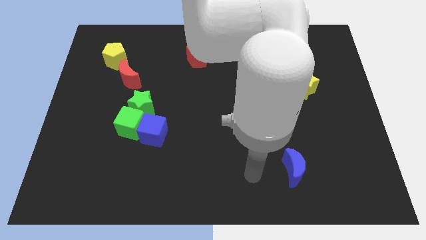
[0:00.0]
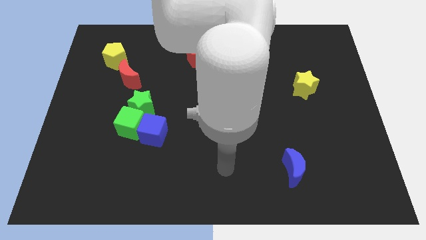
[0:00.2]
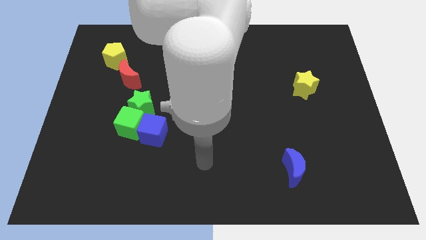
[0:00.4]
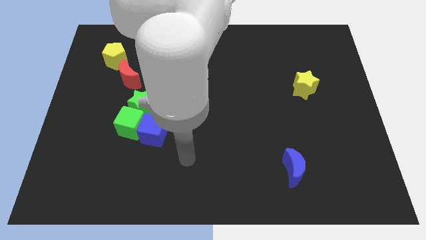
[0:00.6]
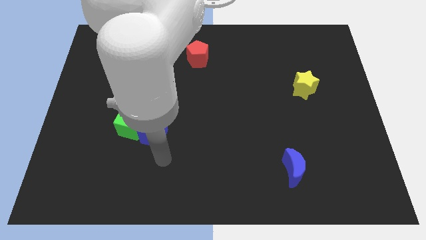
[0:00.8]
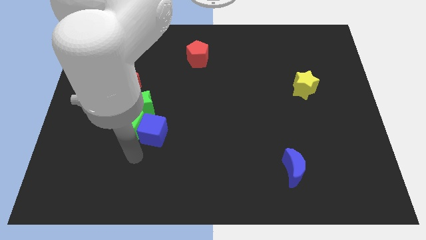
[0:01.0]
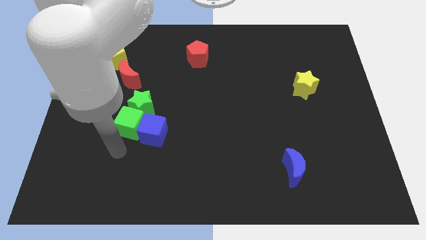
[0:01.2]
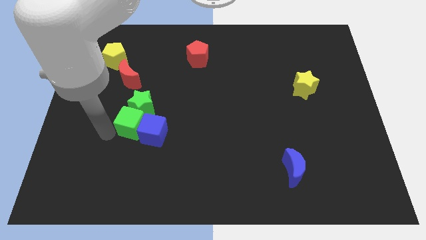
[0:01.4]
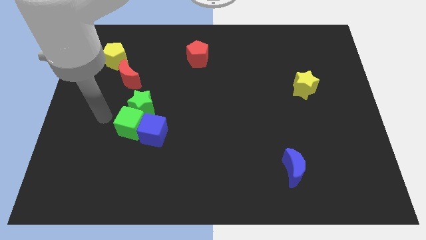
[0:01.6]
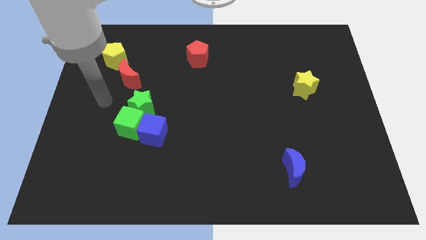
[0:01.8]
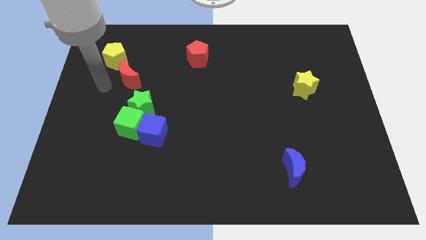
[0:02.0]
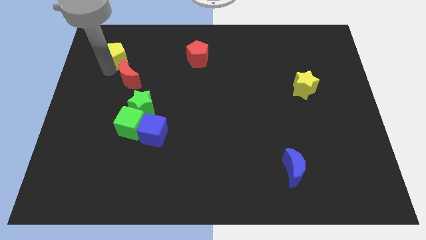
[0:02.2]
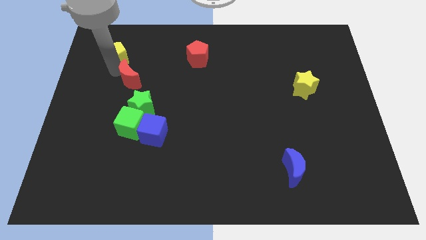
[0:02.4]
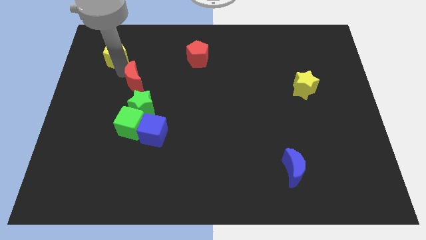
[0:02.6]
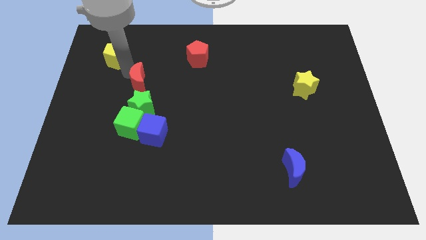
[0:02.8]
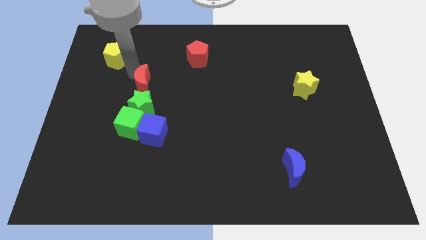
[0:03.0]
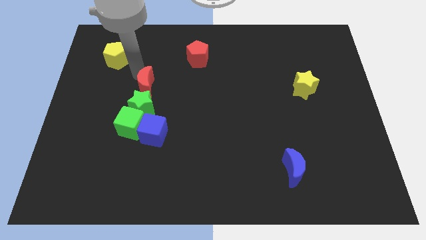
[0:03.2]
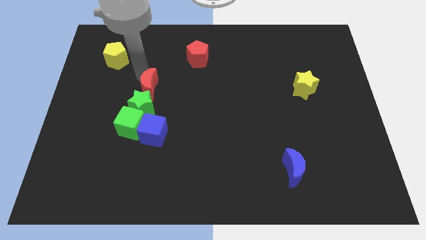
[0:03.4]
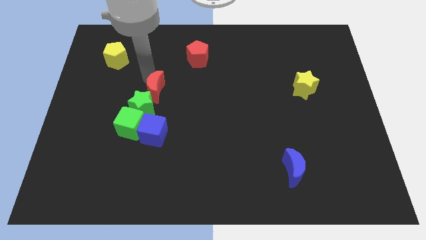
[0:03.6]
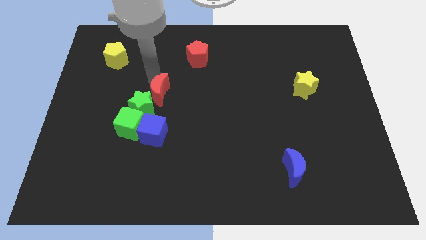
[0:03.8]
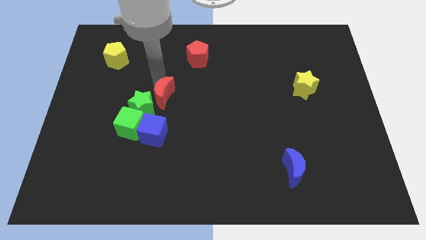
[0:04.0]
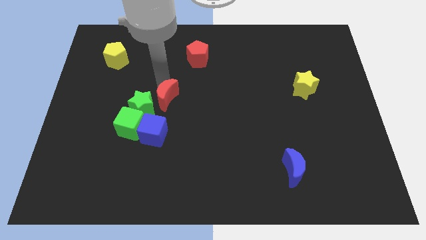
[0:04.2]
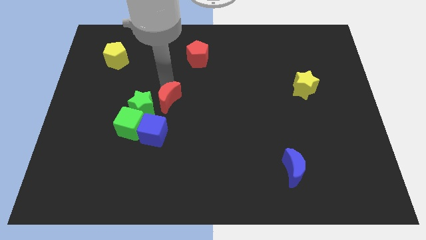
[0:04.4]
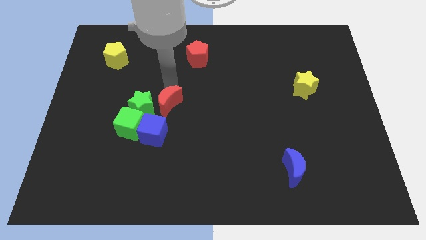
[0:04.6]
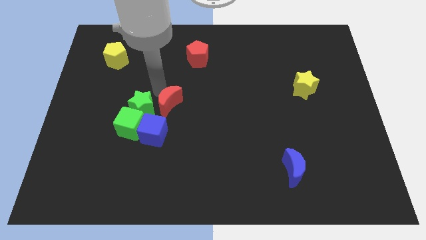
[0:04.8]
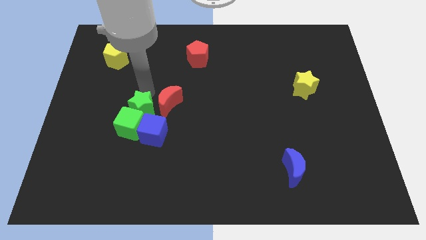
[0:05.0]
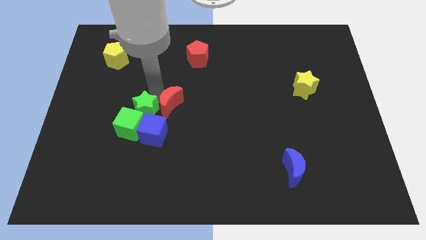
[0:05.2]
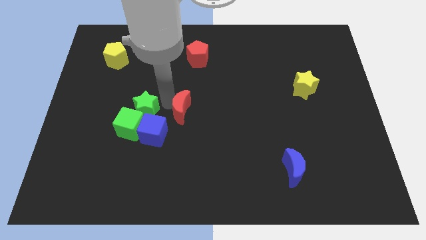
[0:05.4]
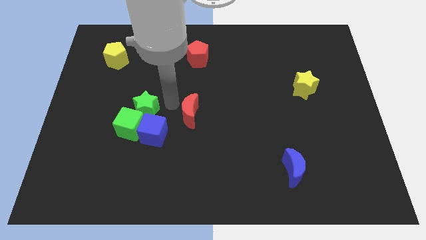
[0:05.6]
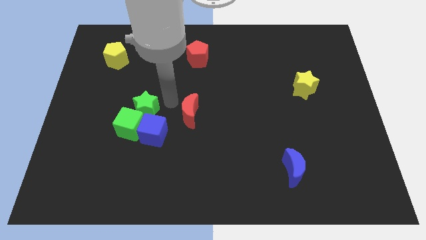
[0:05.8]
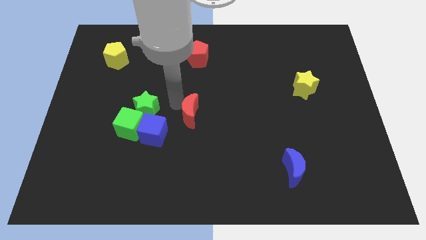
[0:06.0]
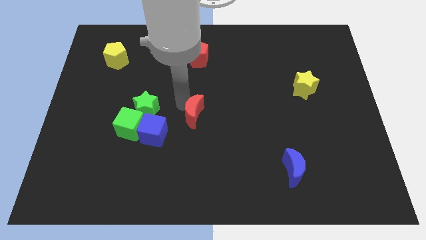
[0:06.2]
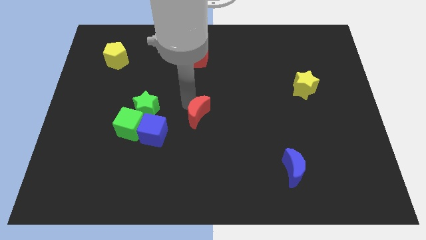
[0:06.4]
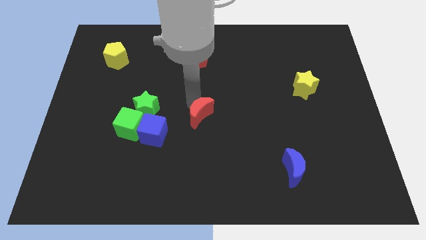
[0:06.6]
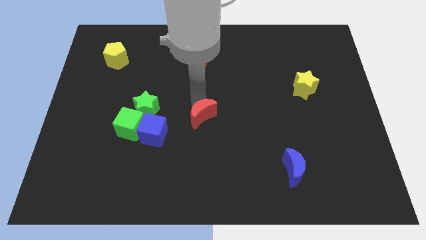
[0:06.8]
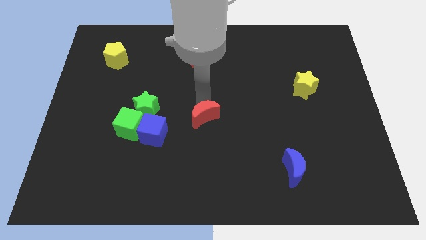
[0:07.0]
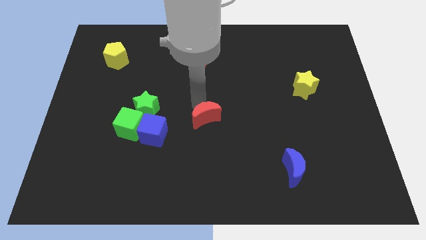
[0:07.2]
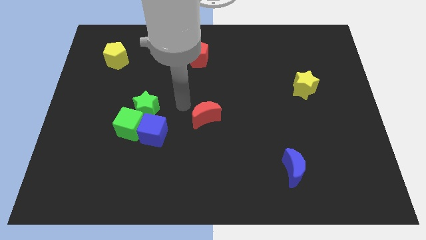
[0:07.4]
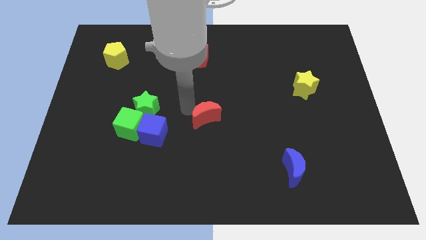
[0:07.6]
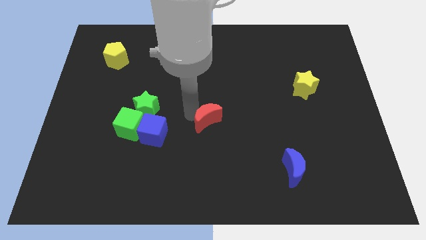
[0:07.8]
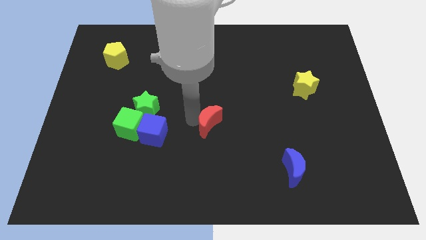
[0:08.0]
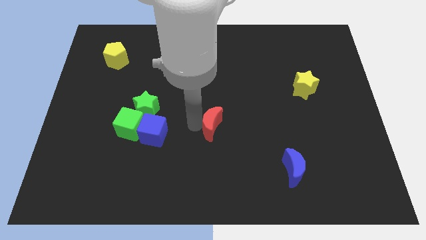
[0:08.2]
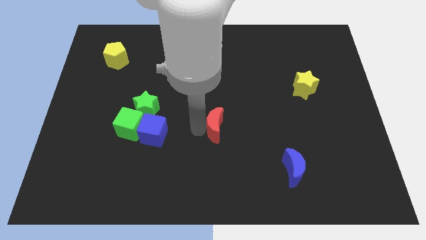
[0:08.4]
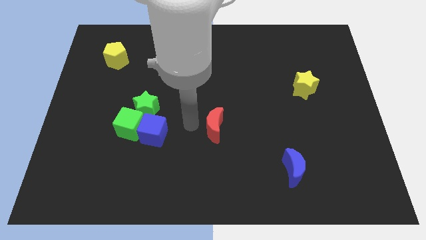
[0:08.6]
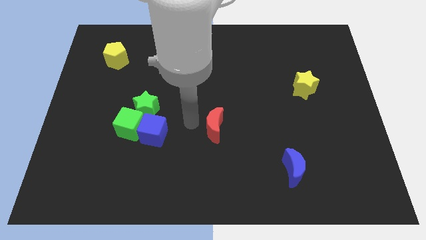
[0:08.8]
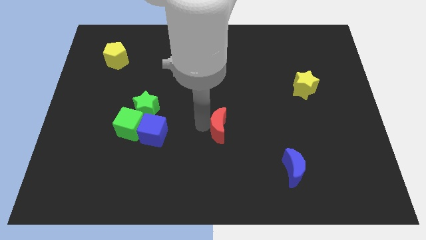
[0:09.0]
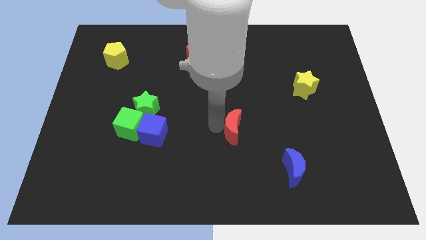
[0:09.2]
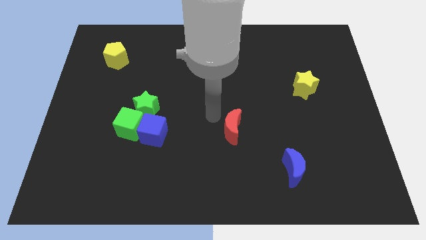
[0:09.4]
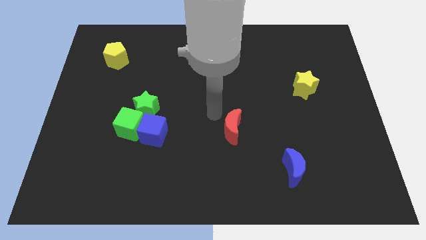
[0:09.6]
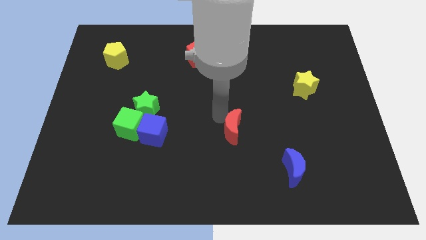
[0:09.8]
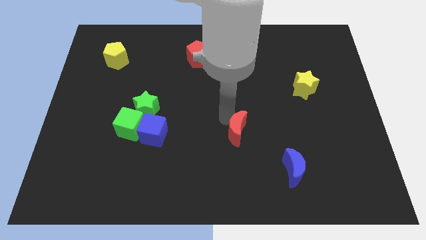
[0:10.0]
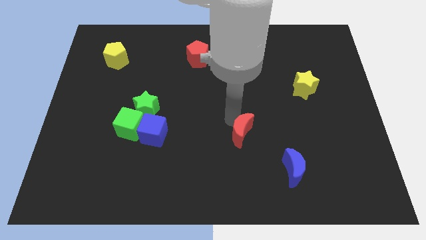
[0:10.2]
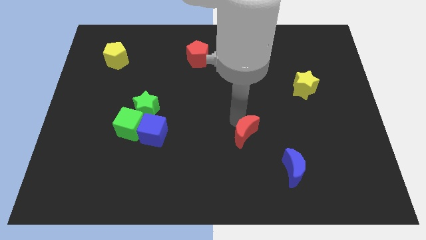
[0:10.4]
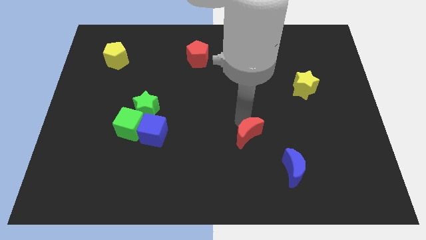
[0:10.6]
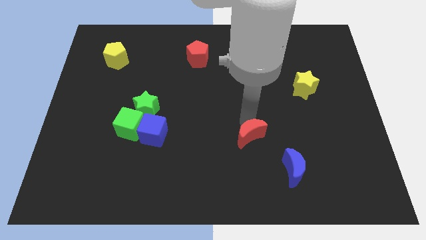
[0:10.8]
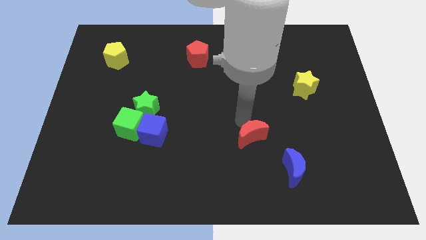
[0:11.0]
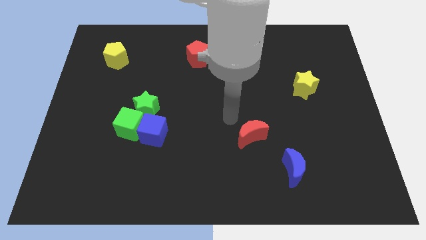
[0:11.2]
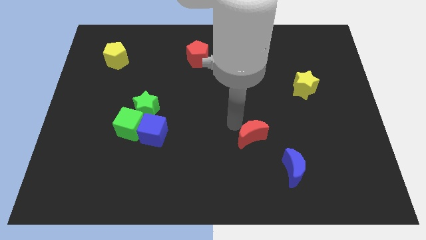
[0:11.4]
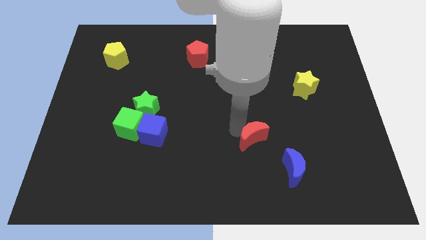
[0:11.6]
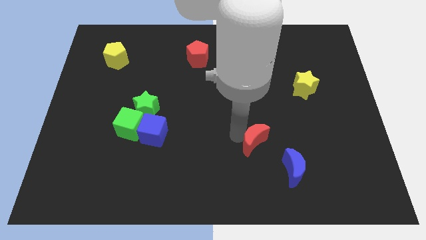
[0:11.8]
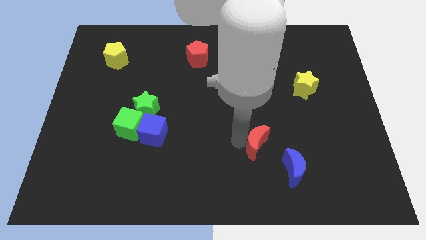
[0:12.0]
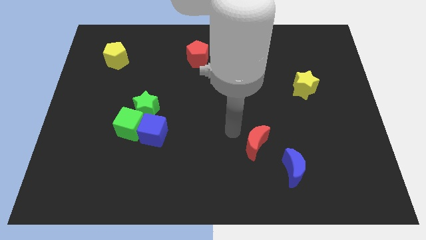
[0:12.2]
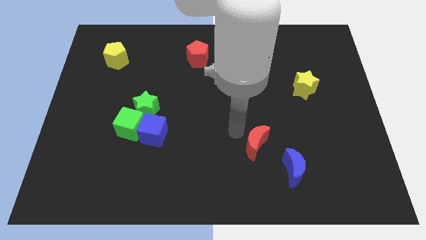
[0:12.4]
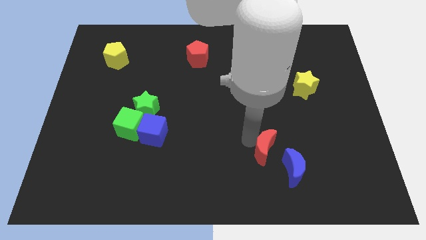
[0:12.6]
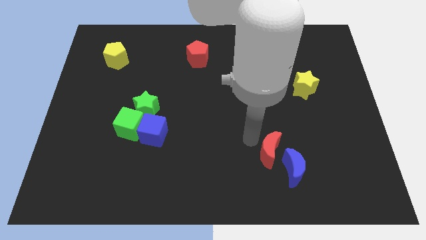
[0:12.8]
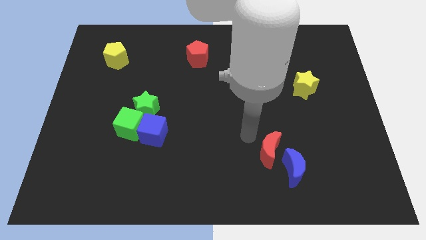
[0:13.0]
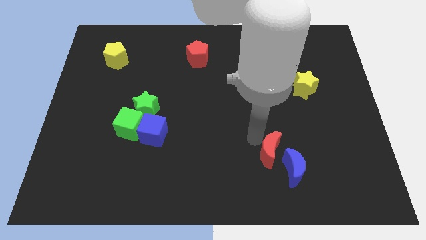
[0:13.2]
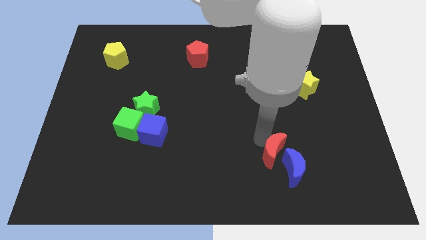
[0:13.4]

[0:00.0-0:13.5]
push the red moon towards the blue moon

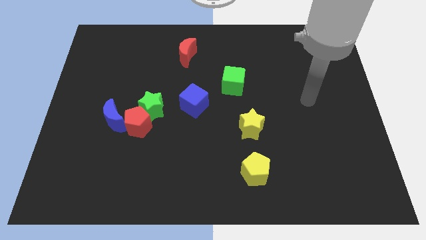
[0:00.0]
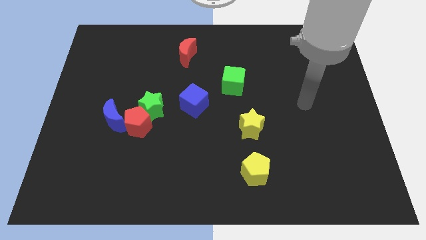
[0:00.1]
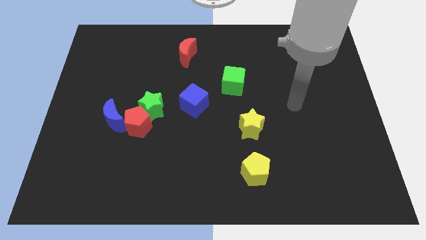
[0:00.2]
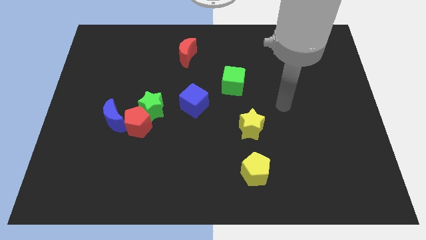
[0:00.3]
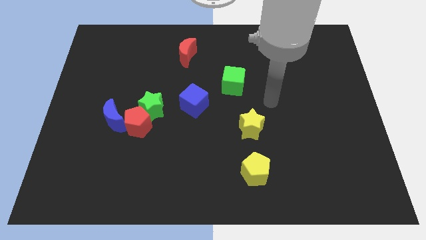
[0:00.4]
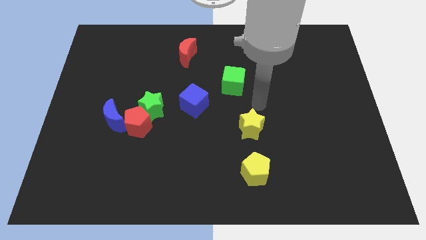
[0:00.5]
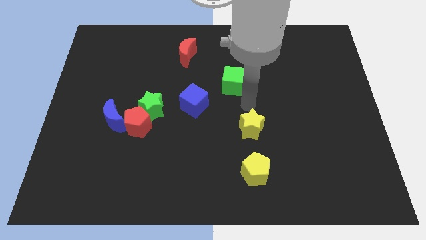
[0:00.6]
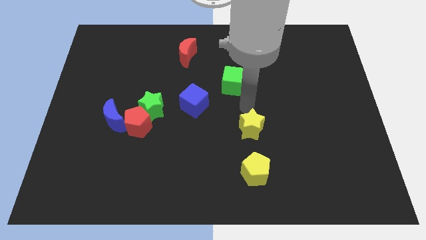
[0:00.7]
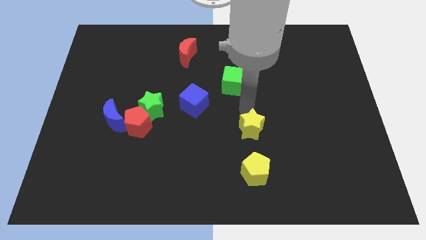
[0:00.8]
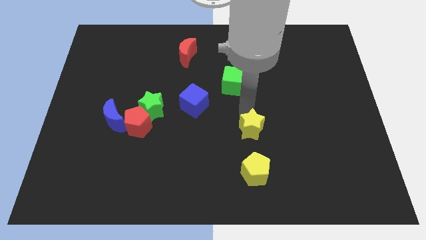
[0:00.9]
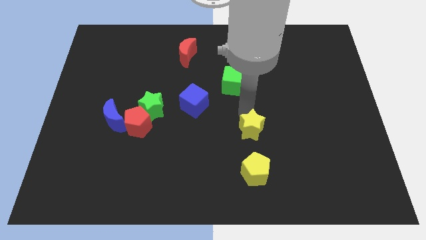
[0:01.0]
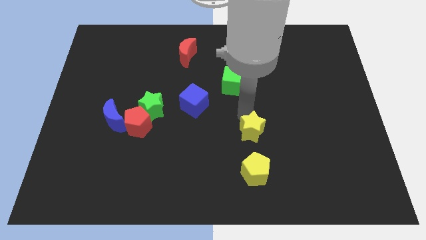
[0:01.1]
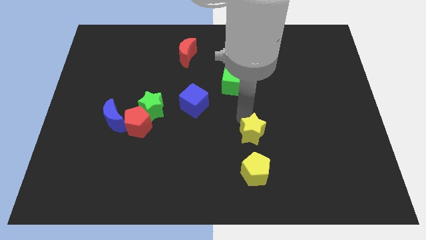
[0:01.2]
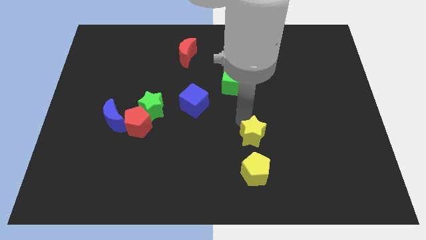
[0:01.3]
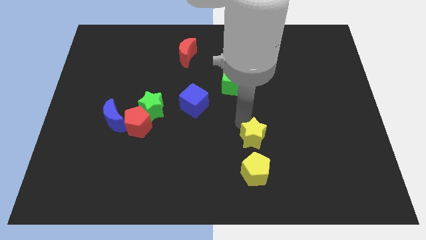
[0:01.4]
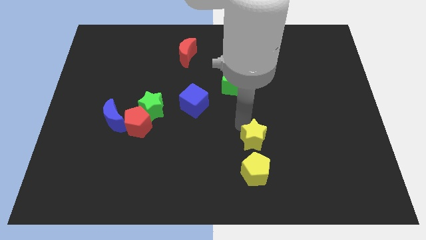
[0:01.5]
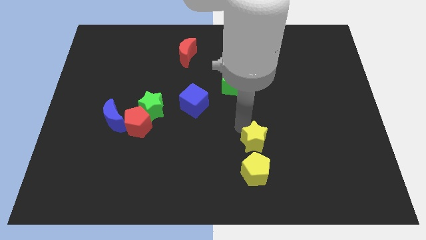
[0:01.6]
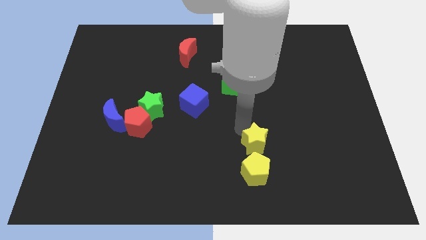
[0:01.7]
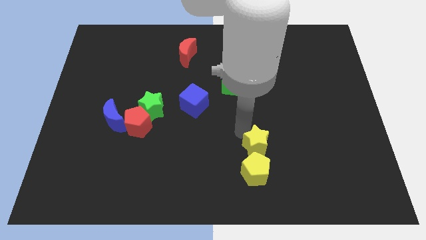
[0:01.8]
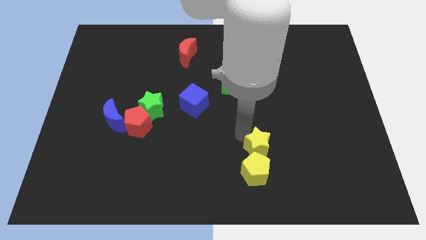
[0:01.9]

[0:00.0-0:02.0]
push the yellow star close to the yellow pentagon
